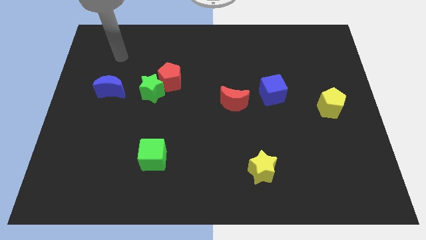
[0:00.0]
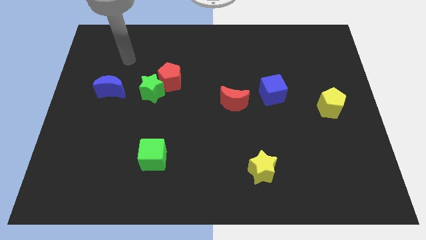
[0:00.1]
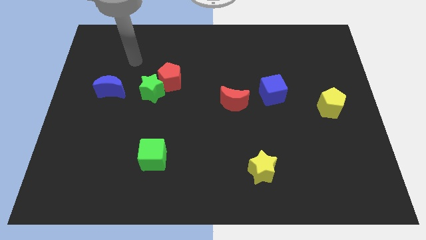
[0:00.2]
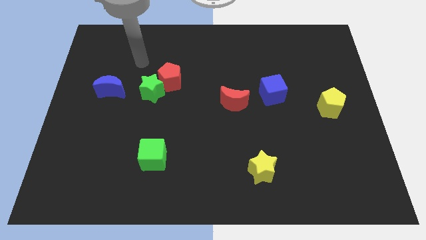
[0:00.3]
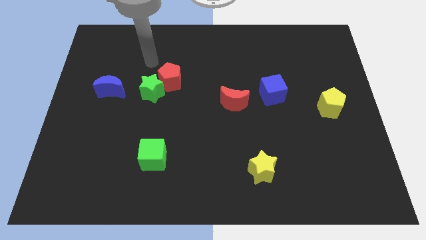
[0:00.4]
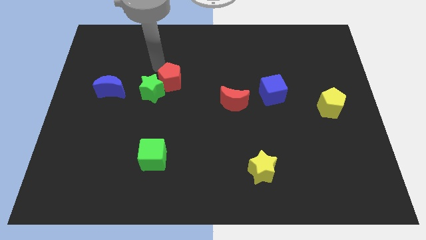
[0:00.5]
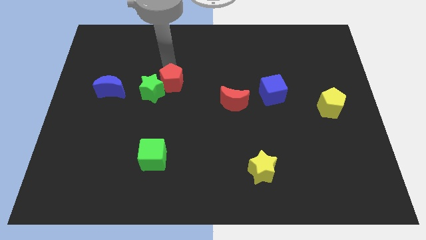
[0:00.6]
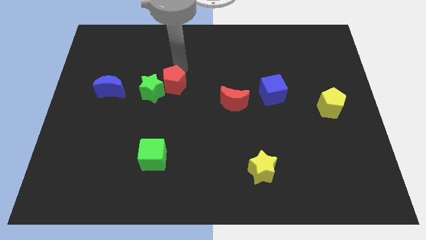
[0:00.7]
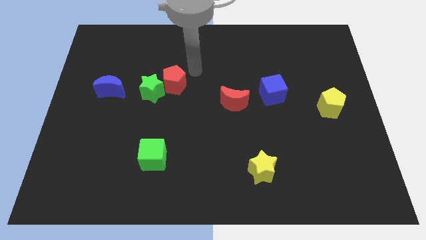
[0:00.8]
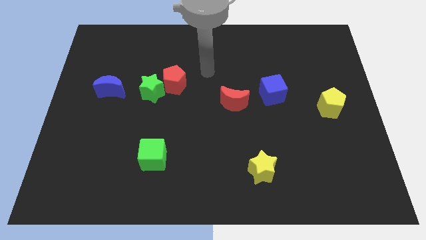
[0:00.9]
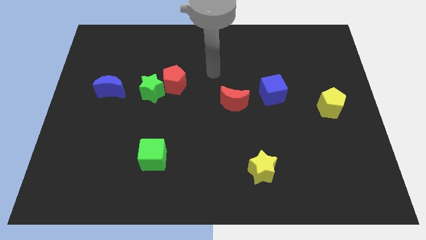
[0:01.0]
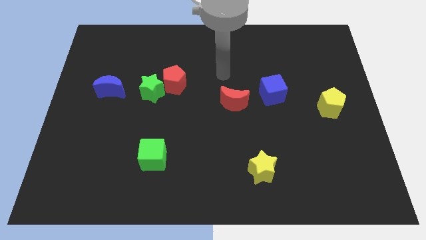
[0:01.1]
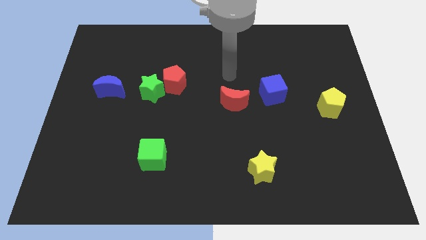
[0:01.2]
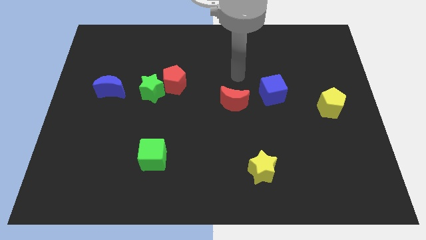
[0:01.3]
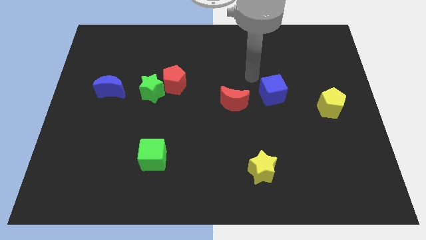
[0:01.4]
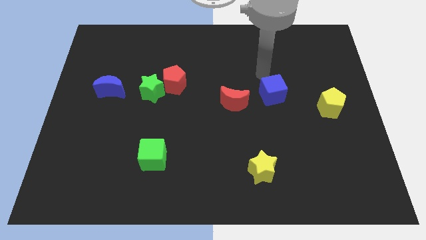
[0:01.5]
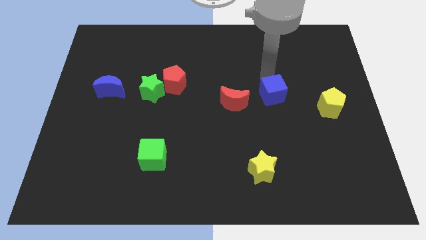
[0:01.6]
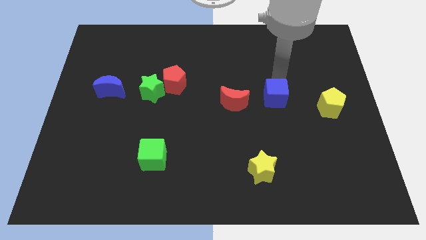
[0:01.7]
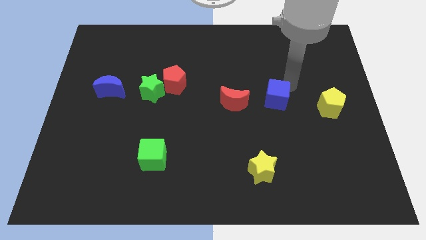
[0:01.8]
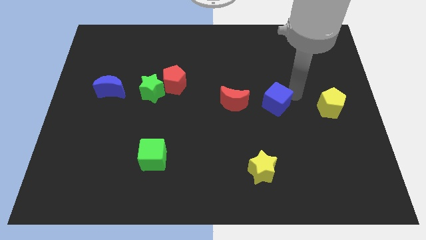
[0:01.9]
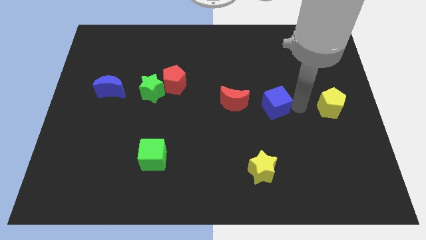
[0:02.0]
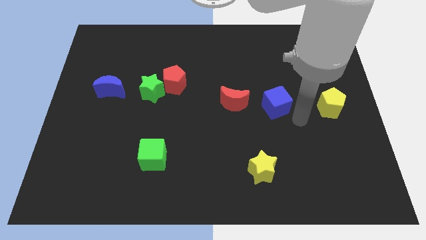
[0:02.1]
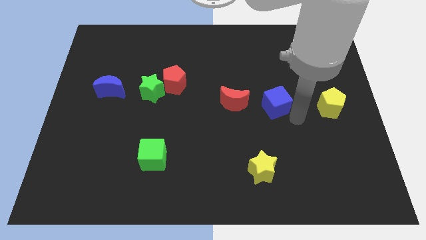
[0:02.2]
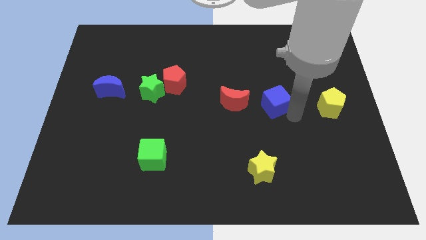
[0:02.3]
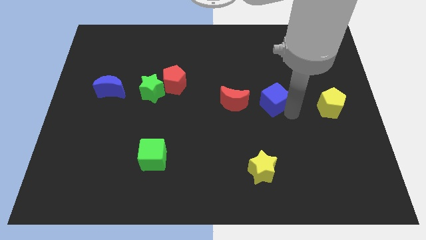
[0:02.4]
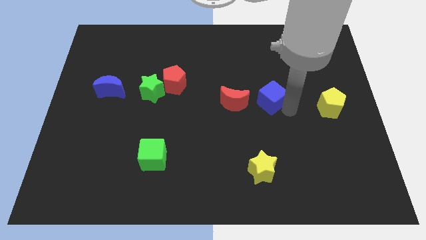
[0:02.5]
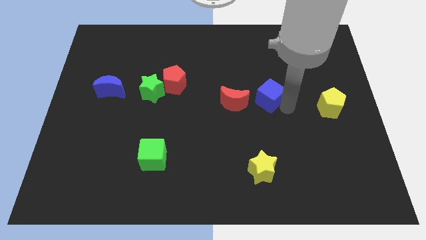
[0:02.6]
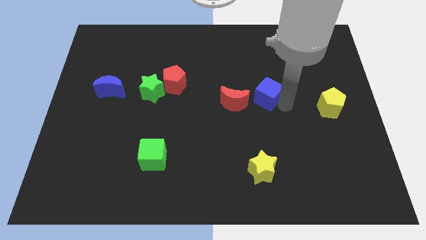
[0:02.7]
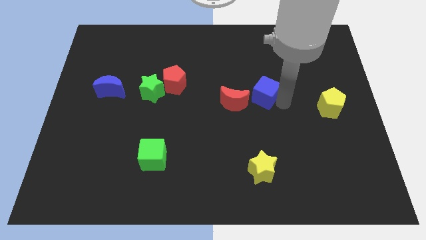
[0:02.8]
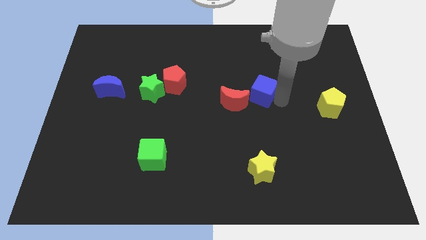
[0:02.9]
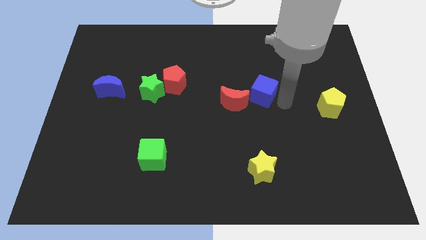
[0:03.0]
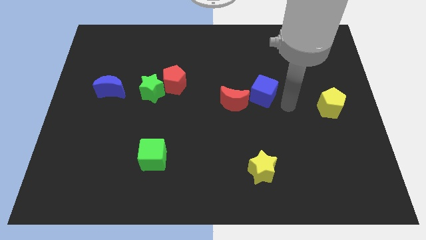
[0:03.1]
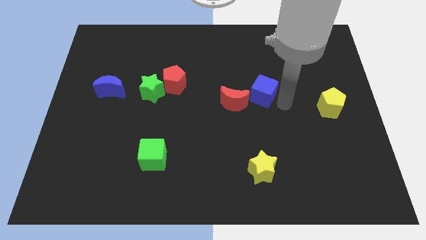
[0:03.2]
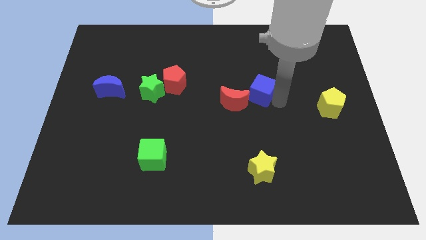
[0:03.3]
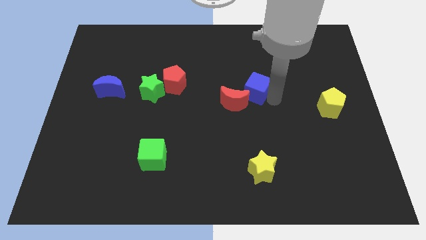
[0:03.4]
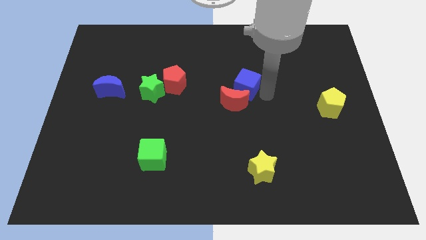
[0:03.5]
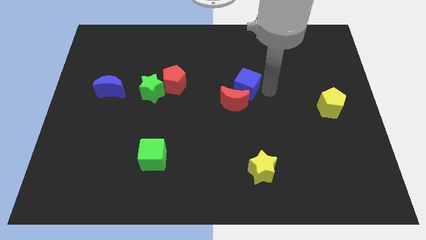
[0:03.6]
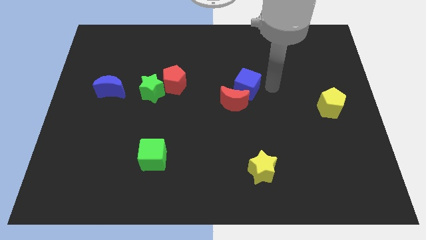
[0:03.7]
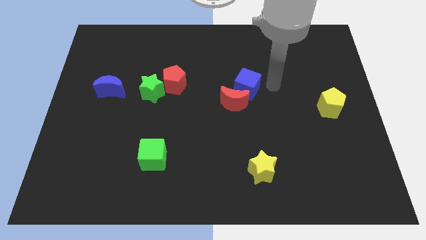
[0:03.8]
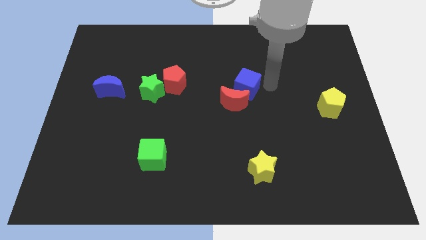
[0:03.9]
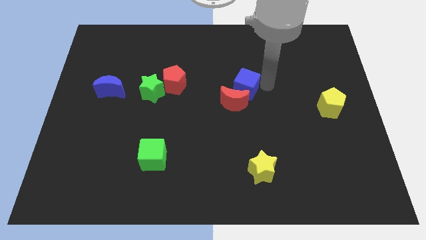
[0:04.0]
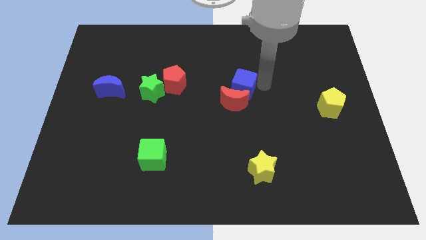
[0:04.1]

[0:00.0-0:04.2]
slide the blue cube left a little

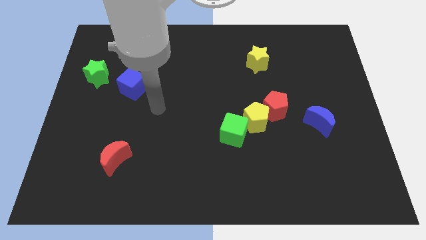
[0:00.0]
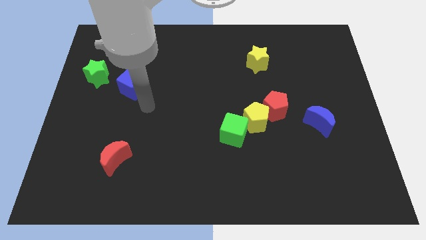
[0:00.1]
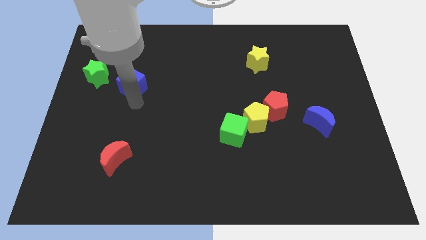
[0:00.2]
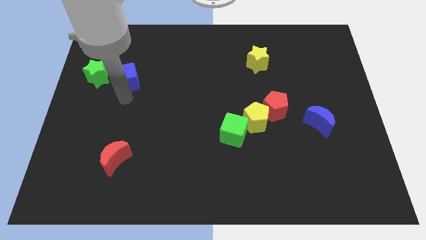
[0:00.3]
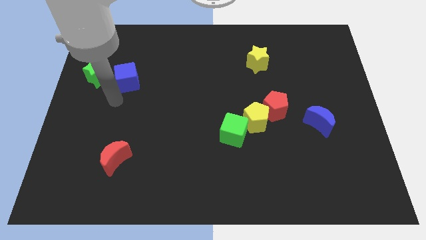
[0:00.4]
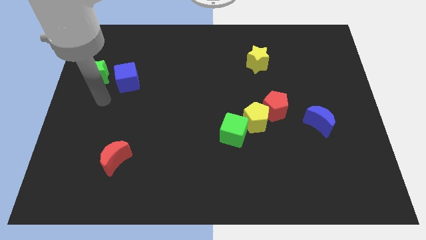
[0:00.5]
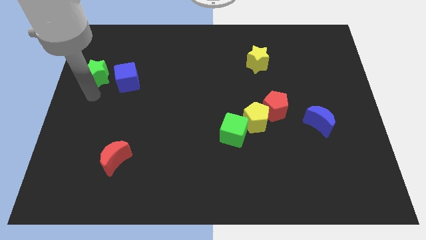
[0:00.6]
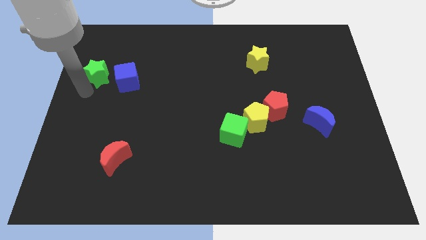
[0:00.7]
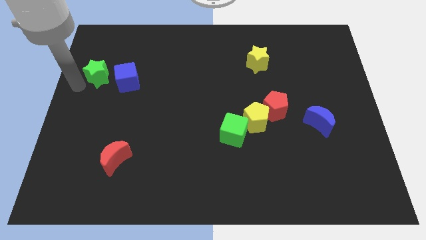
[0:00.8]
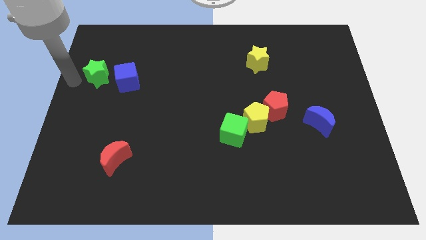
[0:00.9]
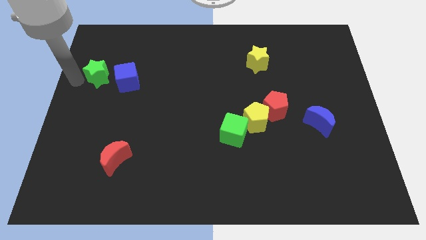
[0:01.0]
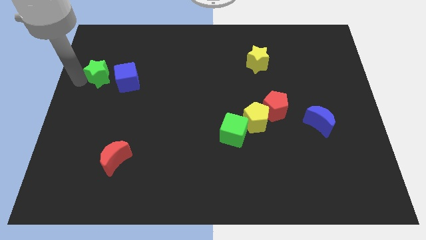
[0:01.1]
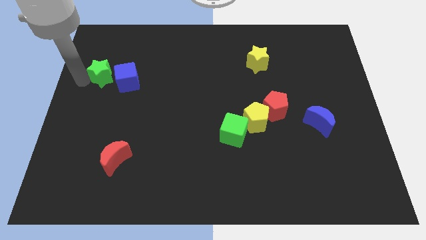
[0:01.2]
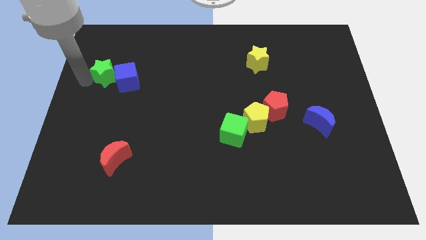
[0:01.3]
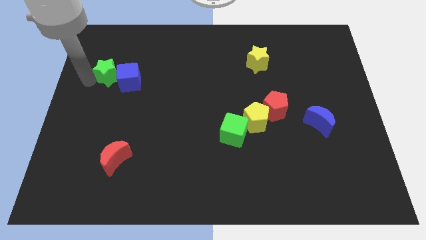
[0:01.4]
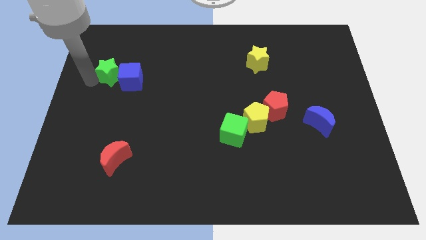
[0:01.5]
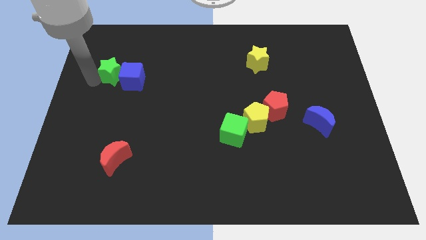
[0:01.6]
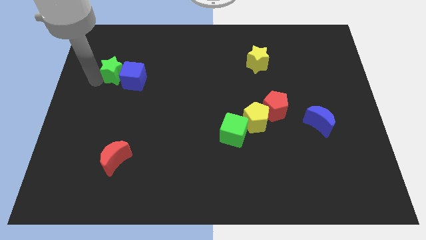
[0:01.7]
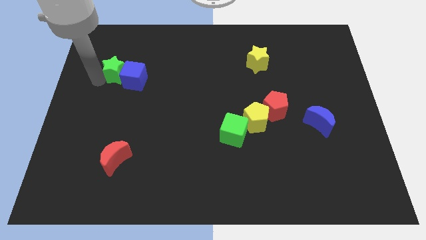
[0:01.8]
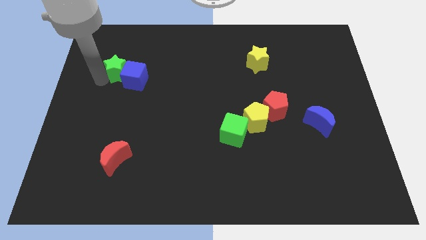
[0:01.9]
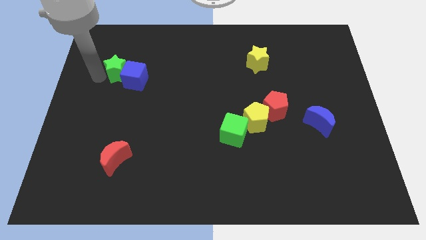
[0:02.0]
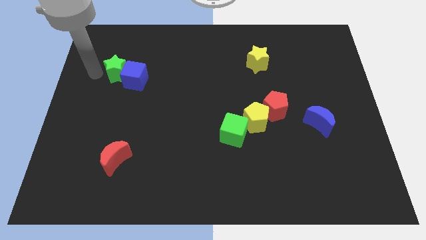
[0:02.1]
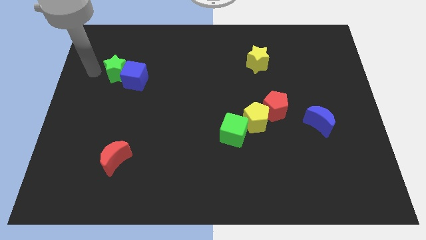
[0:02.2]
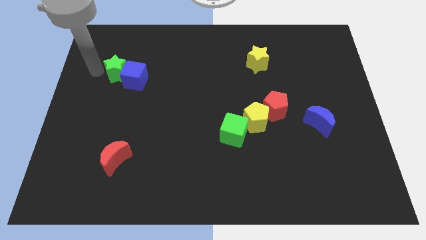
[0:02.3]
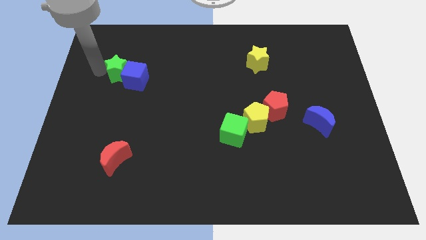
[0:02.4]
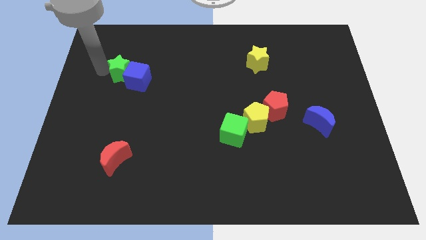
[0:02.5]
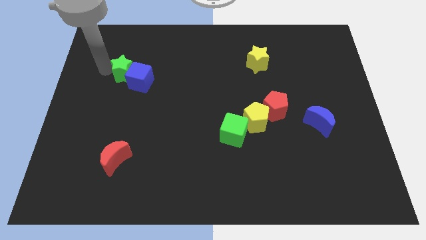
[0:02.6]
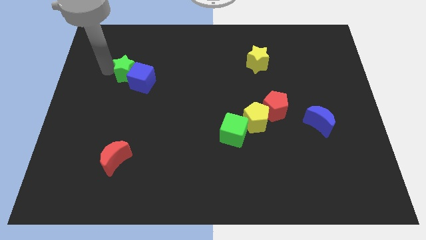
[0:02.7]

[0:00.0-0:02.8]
slightly move the green star to the right

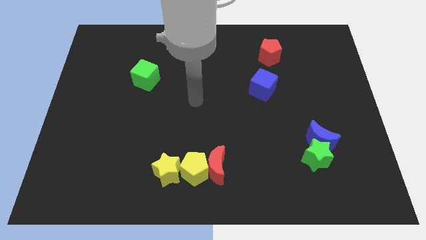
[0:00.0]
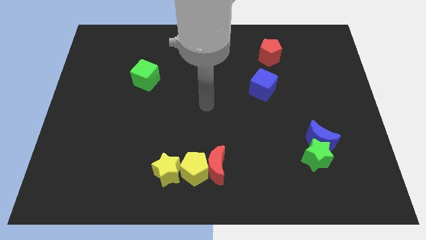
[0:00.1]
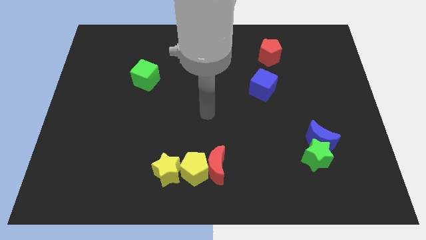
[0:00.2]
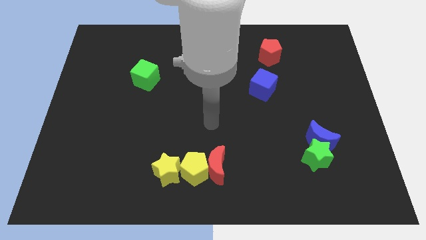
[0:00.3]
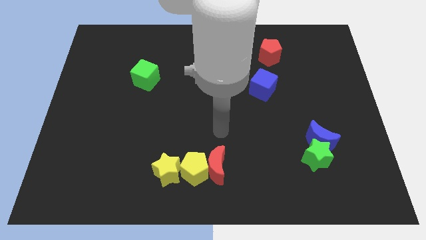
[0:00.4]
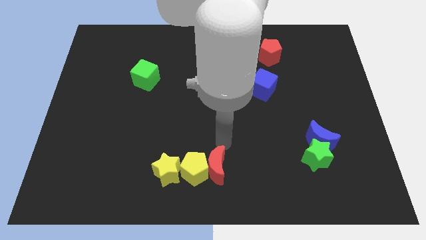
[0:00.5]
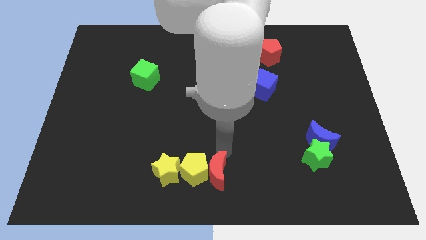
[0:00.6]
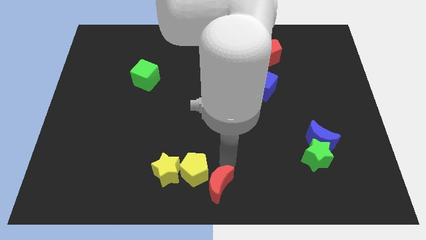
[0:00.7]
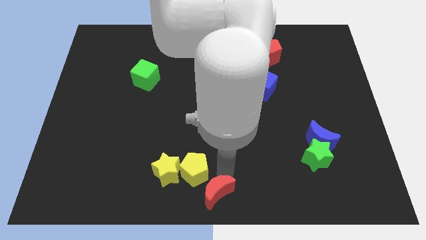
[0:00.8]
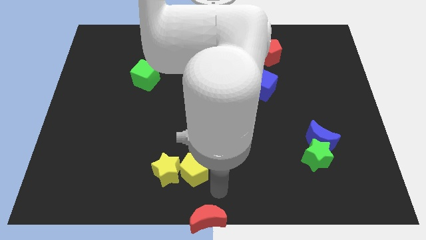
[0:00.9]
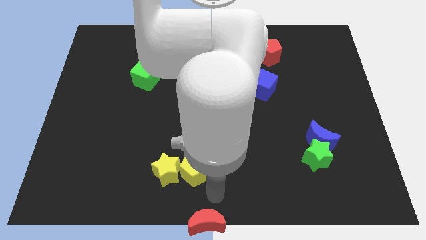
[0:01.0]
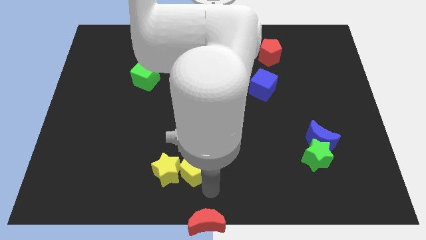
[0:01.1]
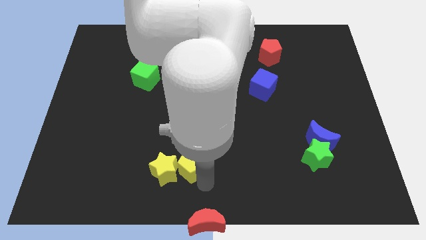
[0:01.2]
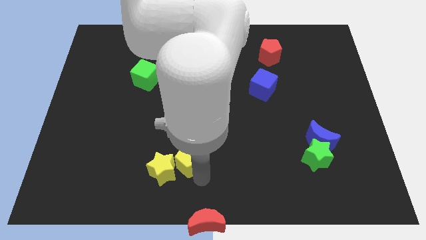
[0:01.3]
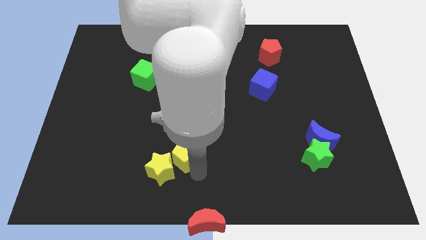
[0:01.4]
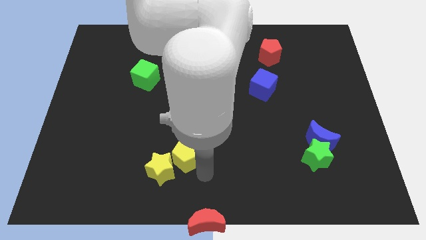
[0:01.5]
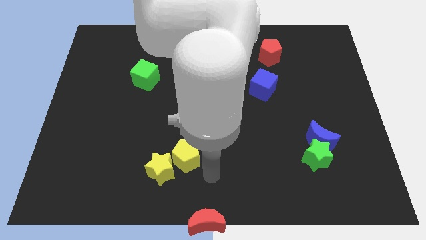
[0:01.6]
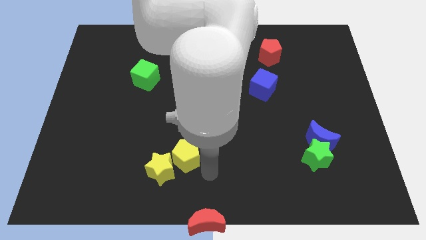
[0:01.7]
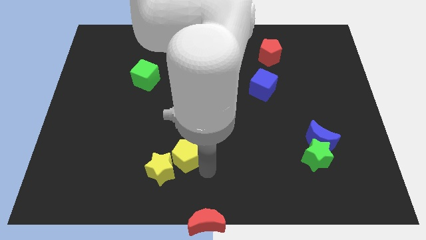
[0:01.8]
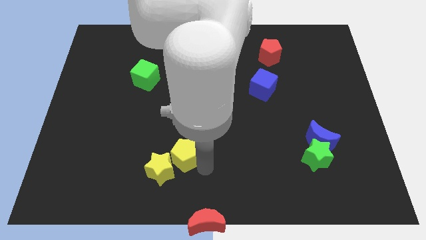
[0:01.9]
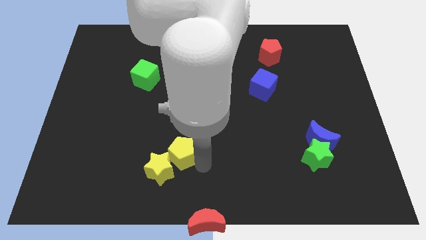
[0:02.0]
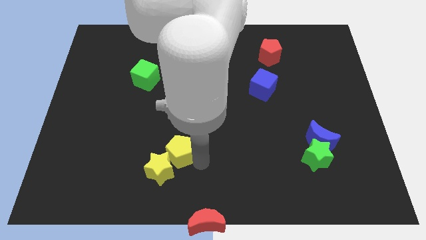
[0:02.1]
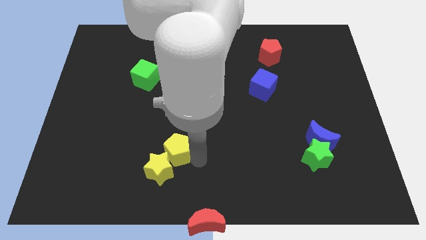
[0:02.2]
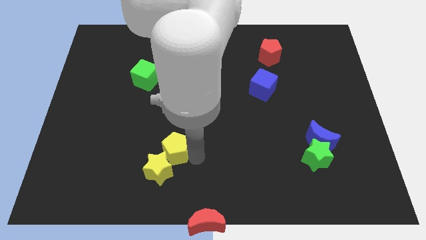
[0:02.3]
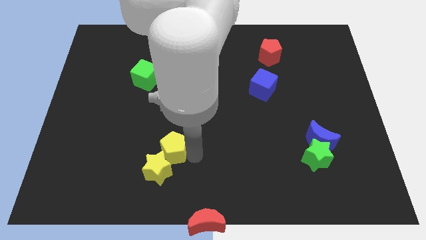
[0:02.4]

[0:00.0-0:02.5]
push the yellow pentagon a bit up and then left
